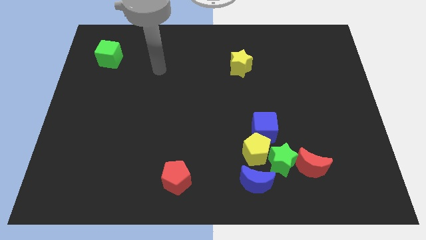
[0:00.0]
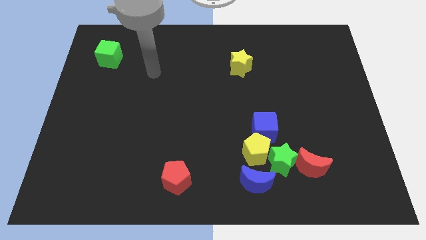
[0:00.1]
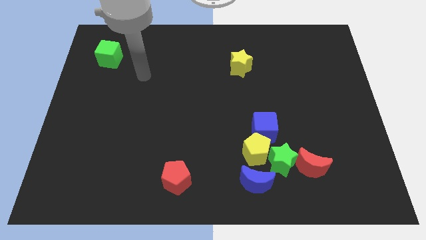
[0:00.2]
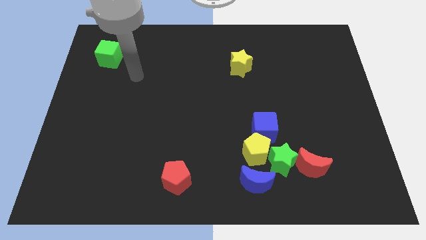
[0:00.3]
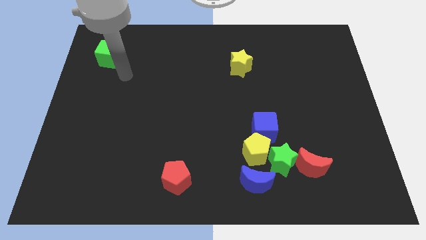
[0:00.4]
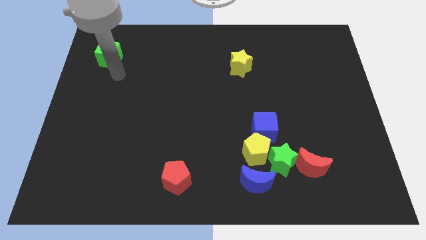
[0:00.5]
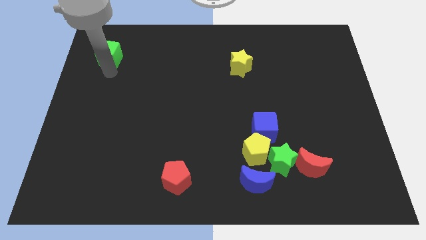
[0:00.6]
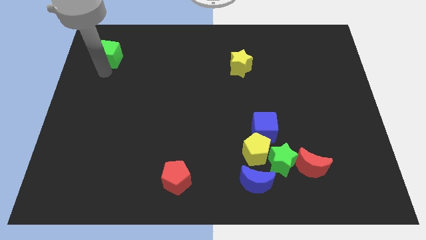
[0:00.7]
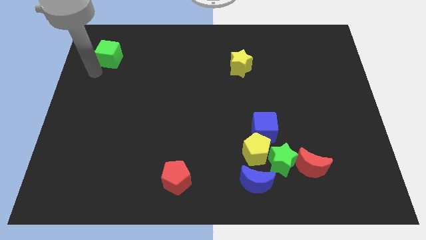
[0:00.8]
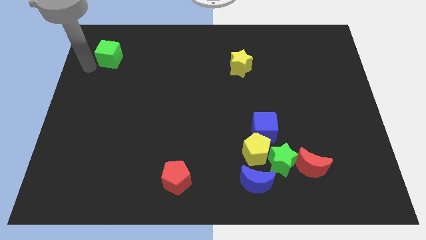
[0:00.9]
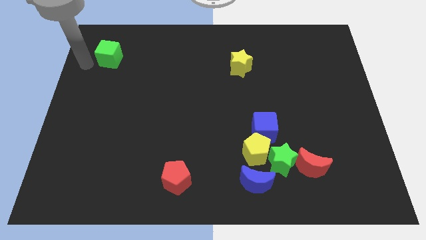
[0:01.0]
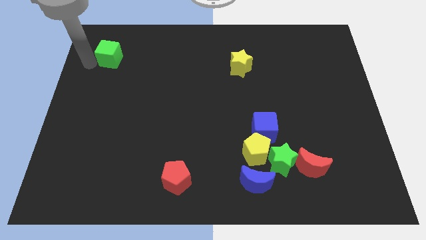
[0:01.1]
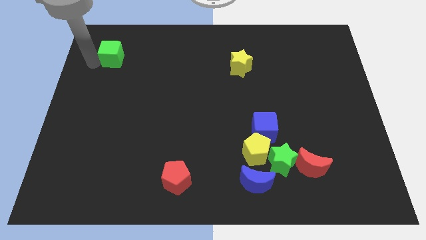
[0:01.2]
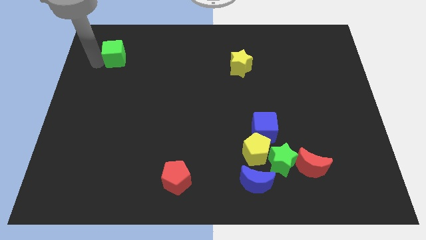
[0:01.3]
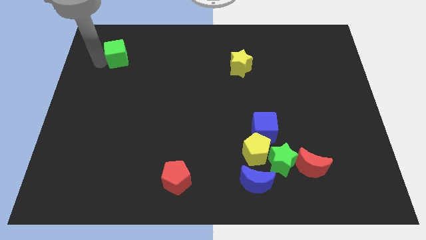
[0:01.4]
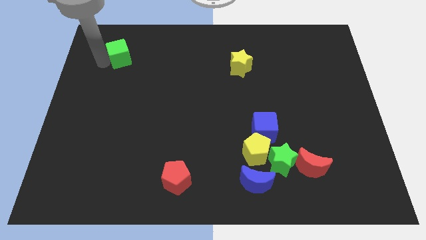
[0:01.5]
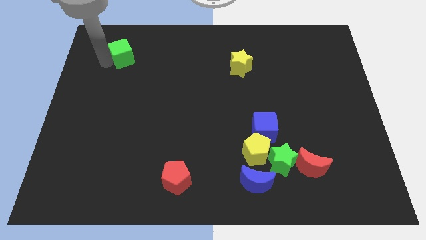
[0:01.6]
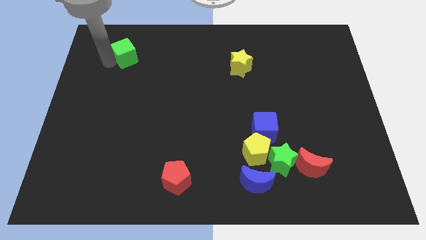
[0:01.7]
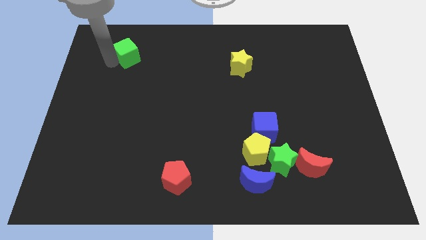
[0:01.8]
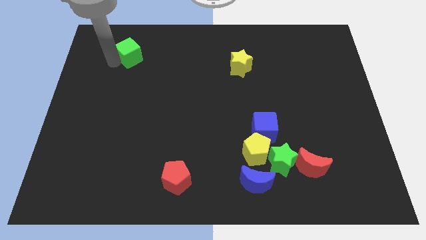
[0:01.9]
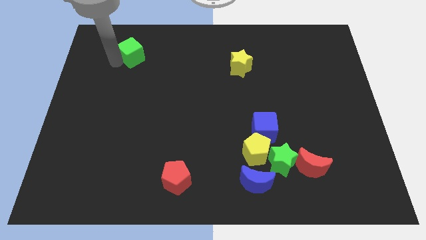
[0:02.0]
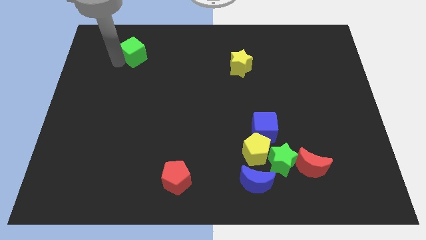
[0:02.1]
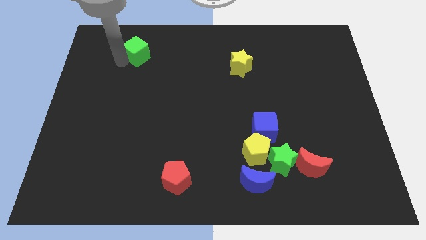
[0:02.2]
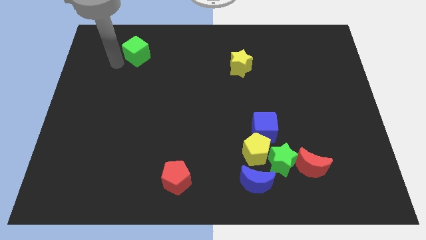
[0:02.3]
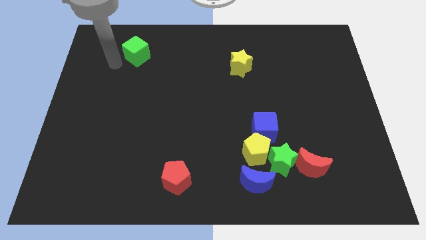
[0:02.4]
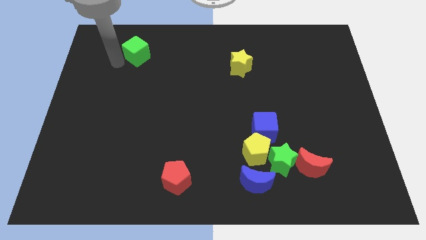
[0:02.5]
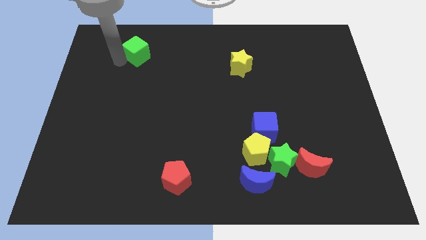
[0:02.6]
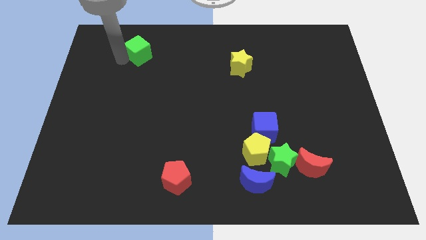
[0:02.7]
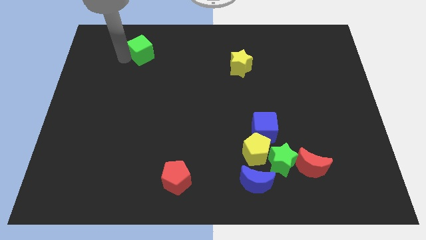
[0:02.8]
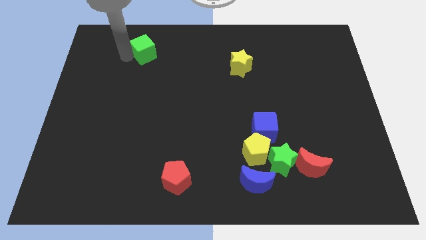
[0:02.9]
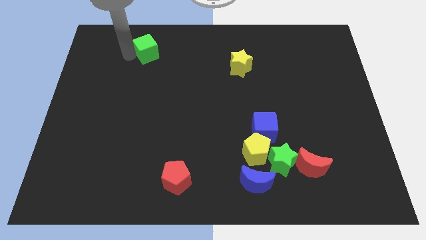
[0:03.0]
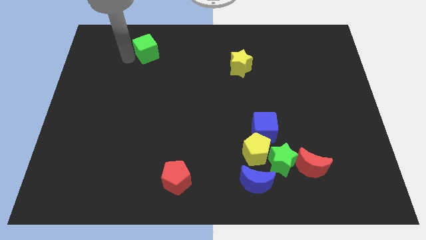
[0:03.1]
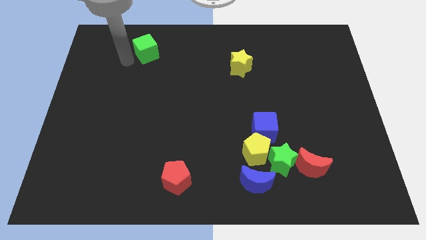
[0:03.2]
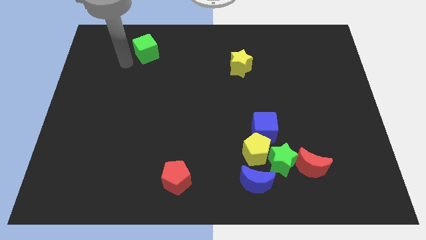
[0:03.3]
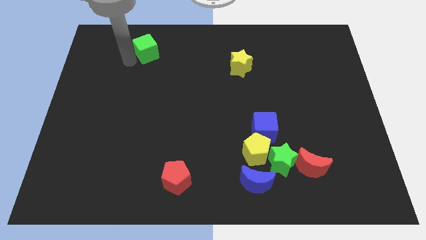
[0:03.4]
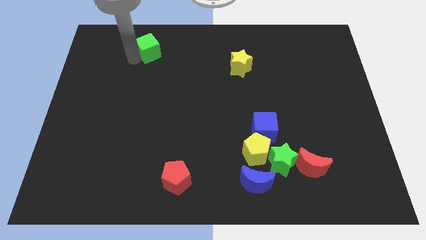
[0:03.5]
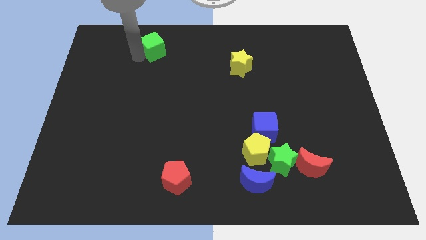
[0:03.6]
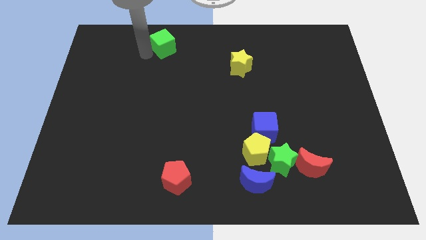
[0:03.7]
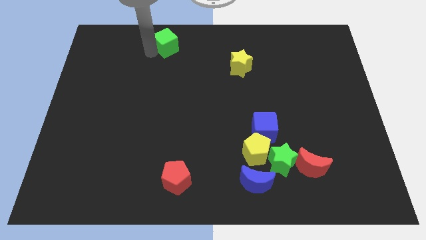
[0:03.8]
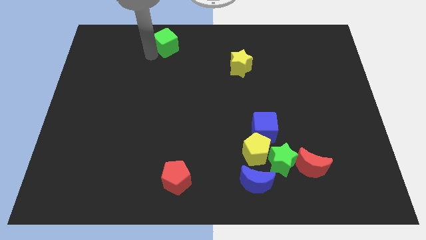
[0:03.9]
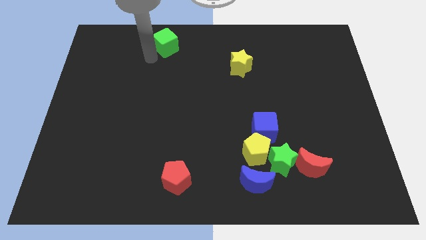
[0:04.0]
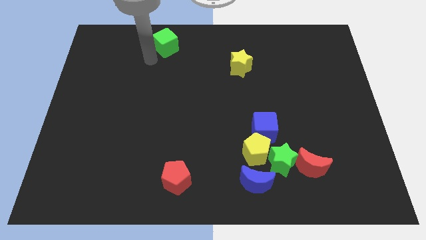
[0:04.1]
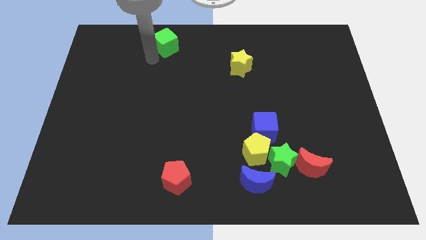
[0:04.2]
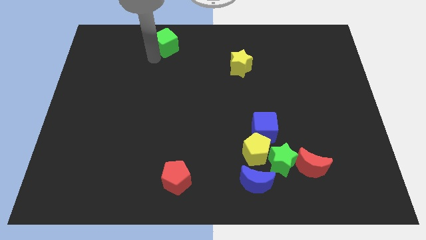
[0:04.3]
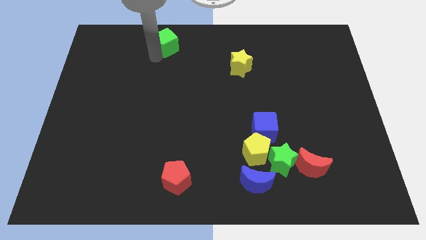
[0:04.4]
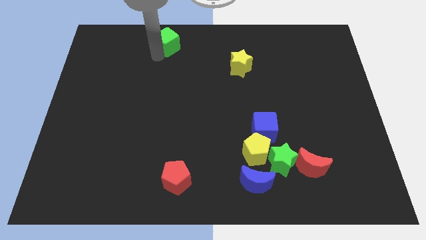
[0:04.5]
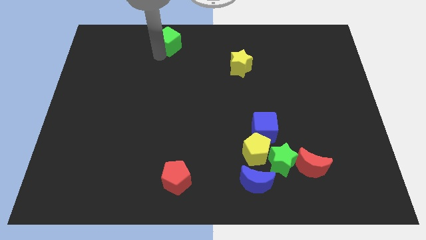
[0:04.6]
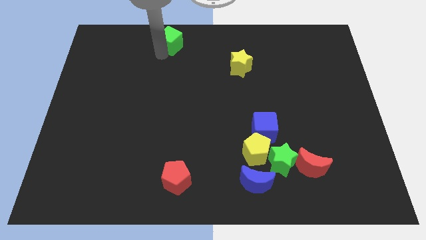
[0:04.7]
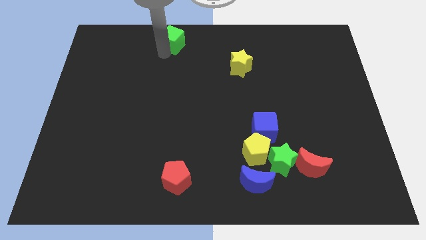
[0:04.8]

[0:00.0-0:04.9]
slide the green cube to the top side

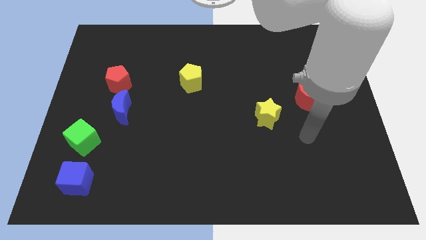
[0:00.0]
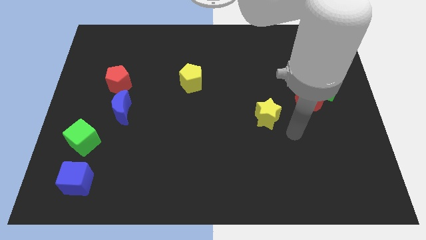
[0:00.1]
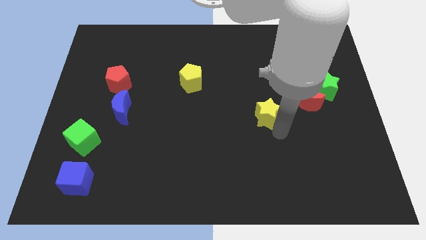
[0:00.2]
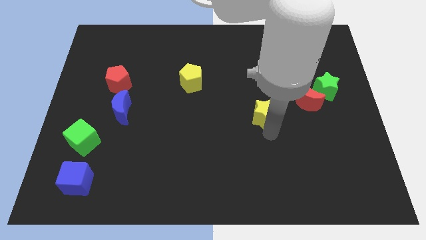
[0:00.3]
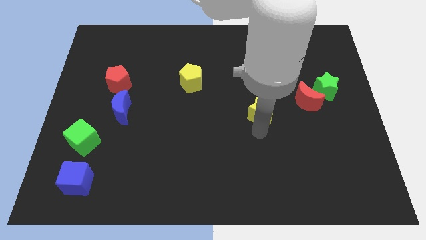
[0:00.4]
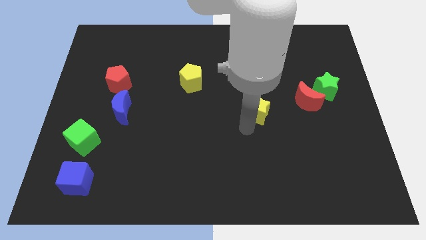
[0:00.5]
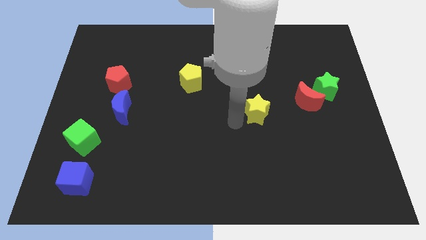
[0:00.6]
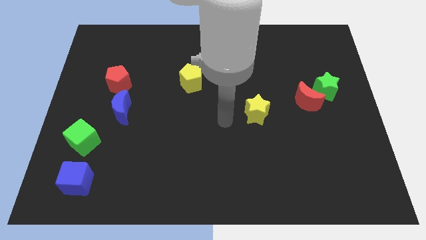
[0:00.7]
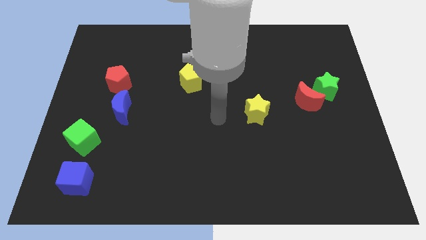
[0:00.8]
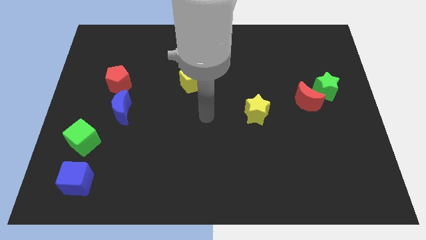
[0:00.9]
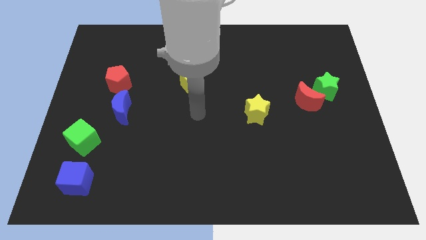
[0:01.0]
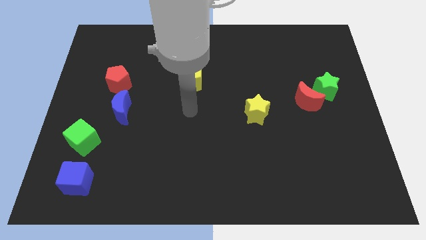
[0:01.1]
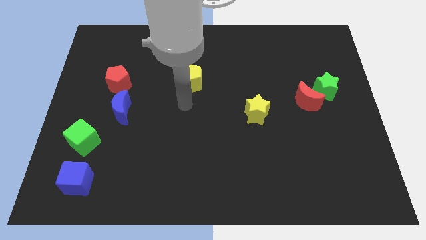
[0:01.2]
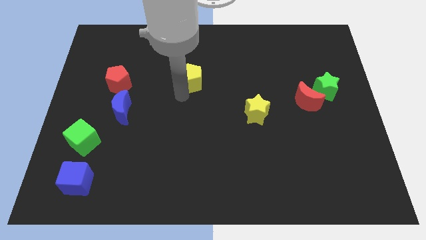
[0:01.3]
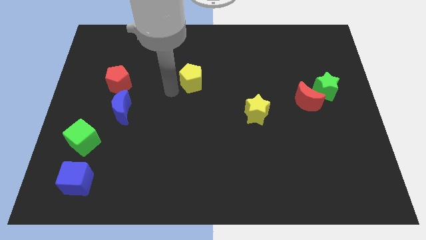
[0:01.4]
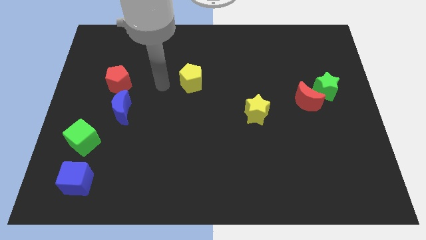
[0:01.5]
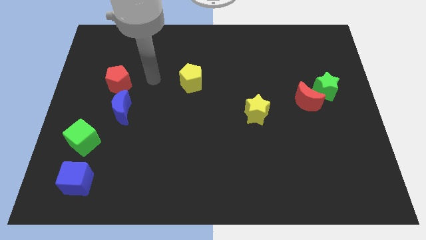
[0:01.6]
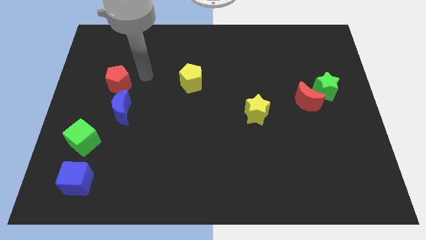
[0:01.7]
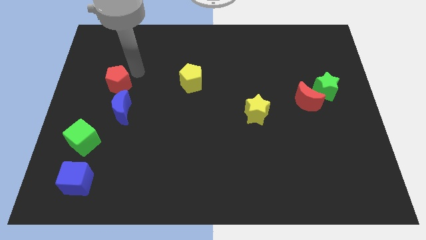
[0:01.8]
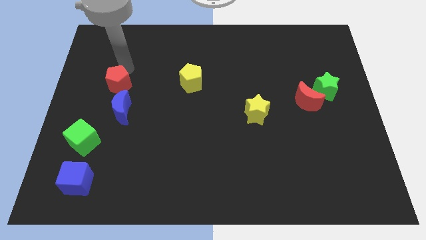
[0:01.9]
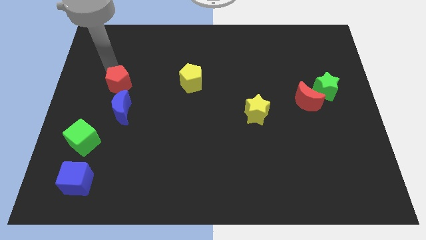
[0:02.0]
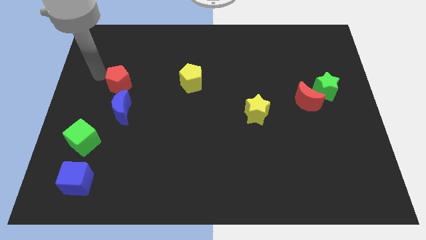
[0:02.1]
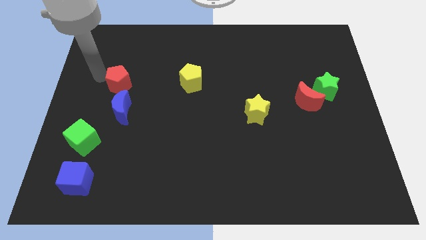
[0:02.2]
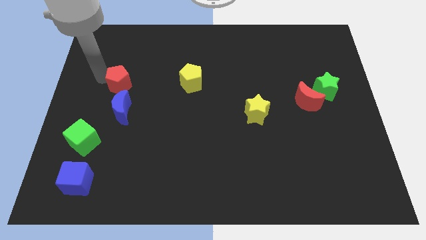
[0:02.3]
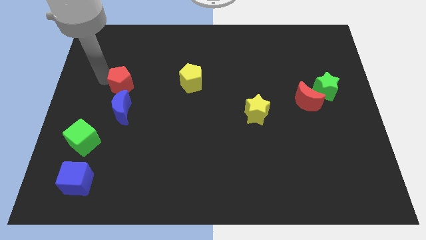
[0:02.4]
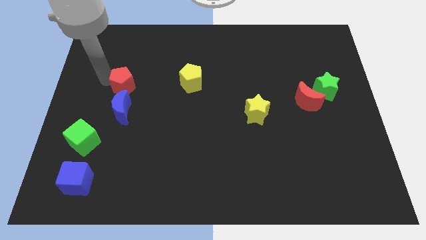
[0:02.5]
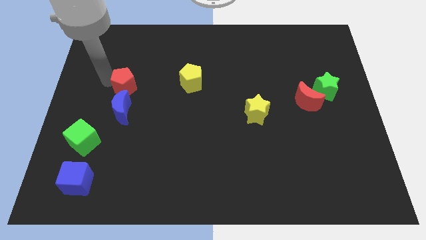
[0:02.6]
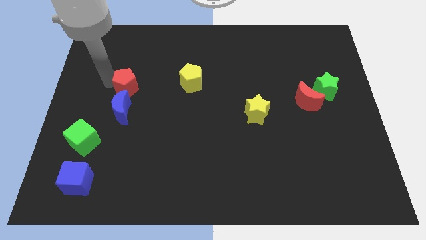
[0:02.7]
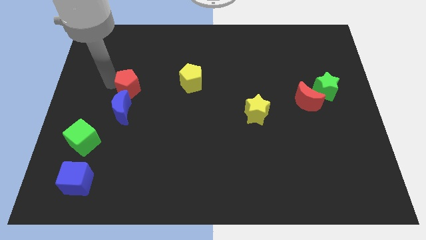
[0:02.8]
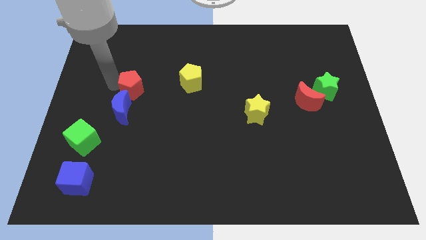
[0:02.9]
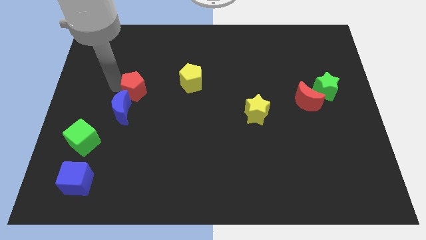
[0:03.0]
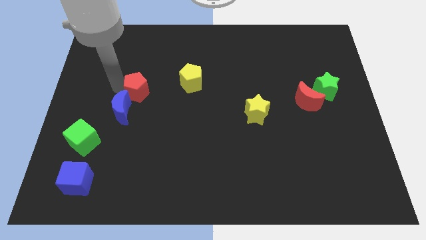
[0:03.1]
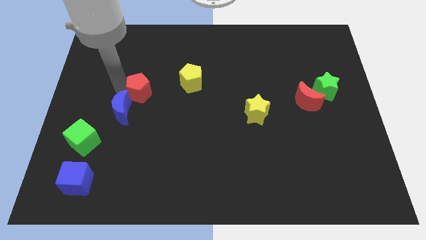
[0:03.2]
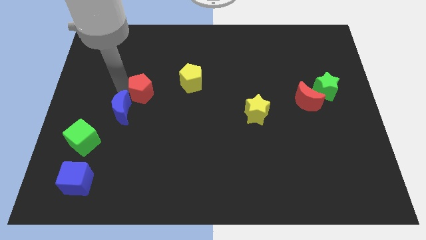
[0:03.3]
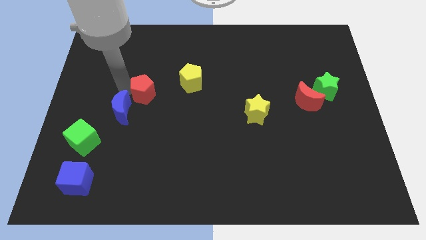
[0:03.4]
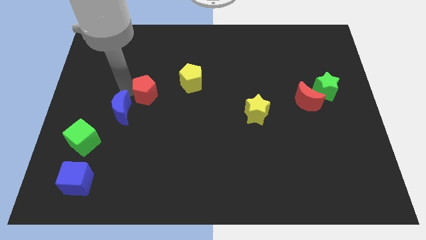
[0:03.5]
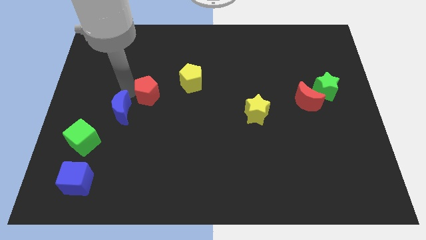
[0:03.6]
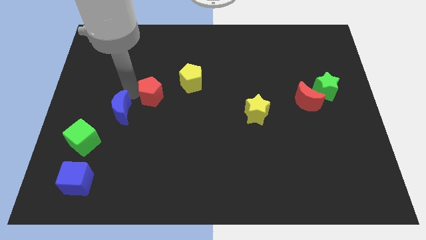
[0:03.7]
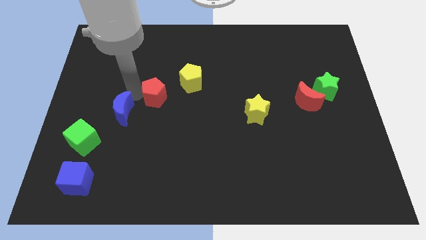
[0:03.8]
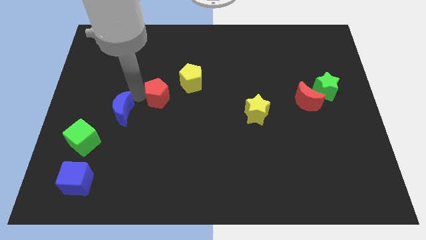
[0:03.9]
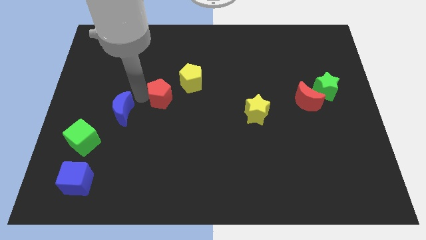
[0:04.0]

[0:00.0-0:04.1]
put the red pentagon to the center of the board
